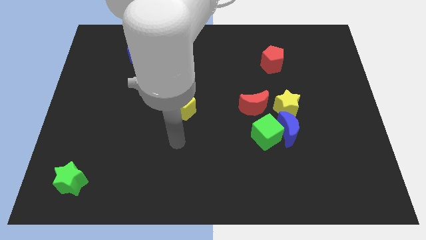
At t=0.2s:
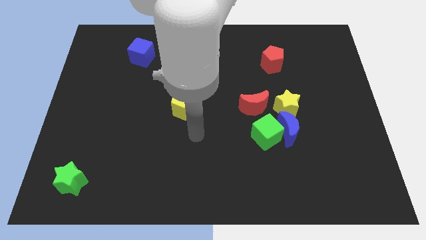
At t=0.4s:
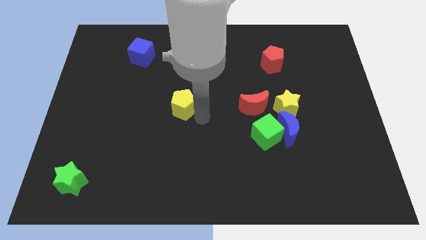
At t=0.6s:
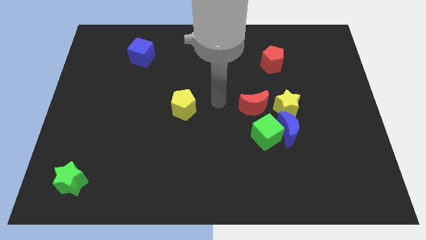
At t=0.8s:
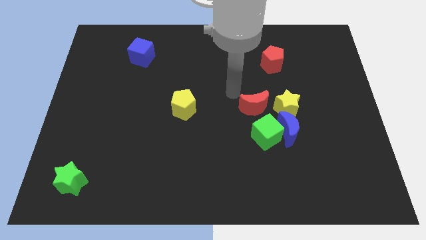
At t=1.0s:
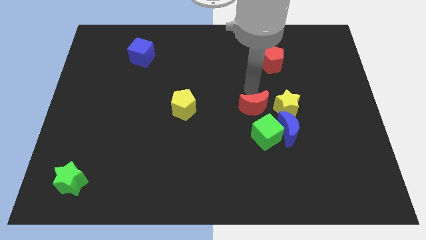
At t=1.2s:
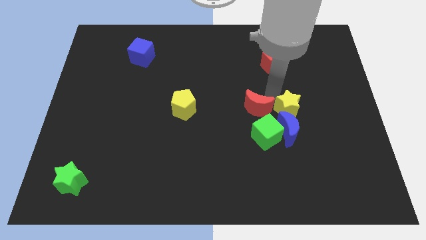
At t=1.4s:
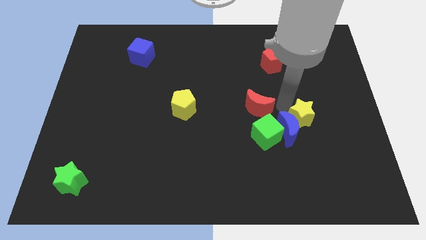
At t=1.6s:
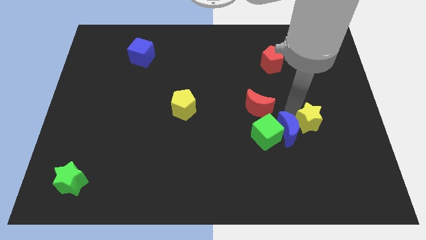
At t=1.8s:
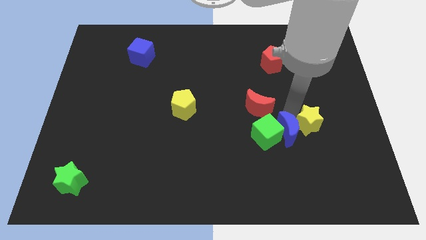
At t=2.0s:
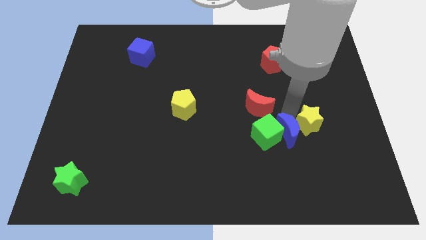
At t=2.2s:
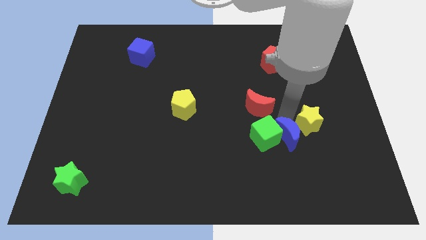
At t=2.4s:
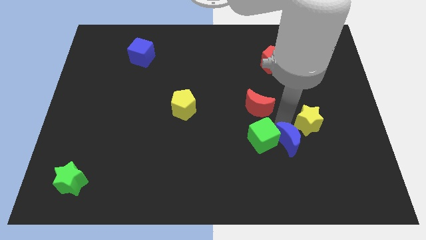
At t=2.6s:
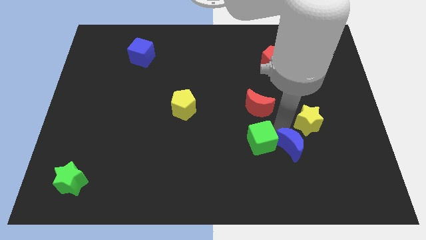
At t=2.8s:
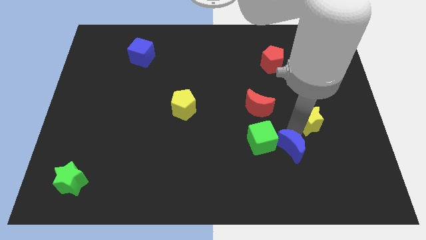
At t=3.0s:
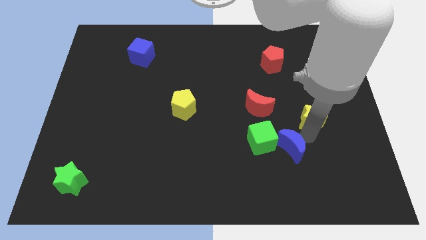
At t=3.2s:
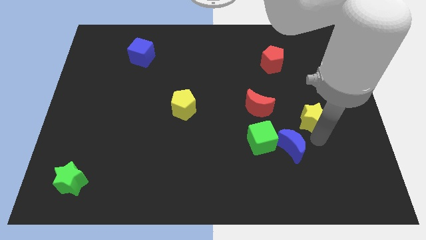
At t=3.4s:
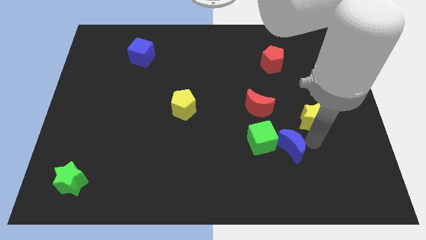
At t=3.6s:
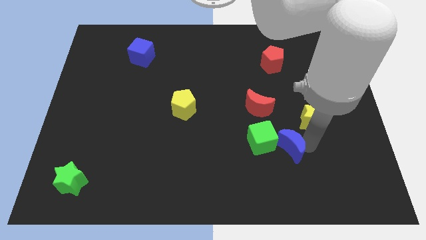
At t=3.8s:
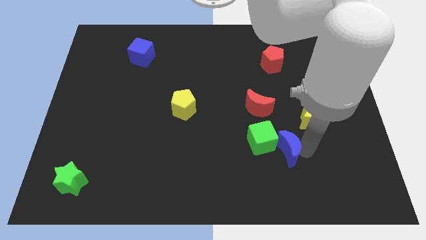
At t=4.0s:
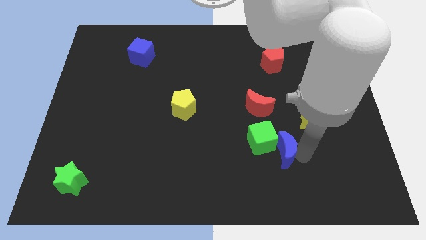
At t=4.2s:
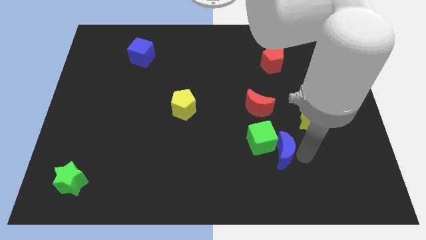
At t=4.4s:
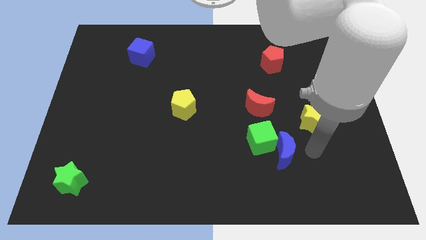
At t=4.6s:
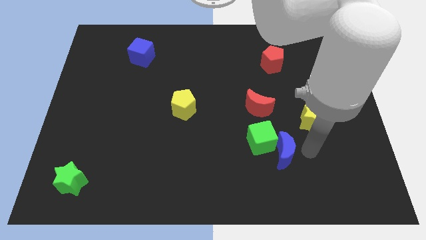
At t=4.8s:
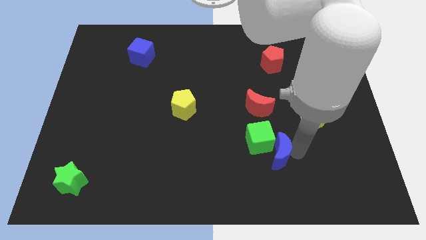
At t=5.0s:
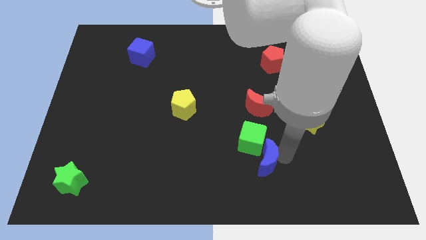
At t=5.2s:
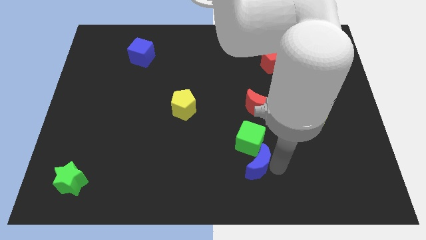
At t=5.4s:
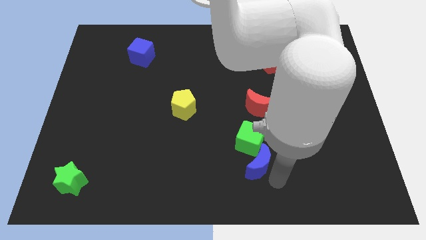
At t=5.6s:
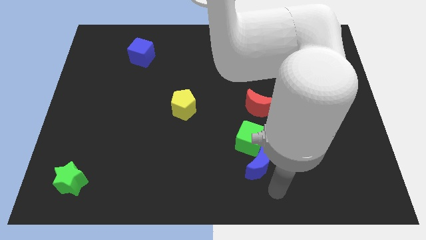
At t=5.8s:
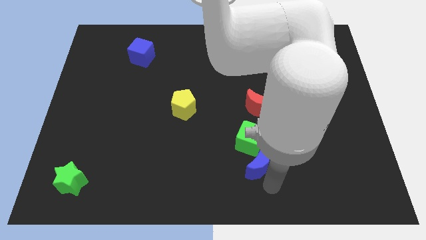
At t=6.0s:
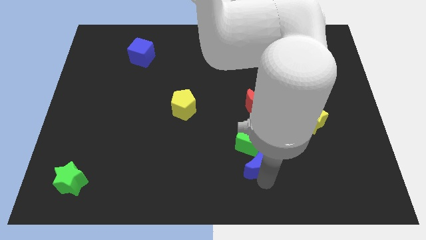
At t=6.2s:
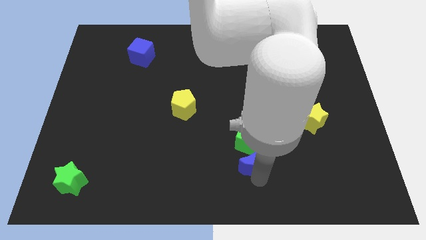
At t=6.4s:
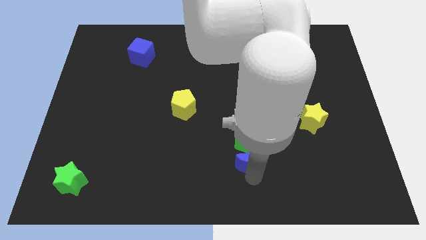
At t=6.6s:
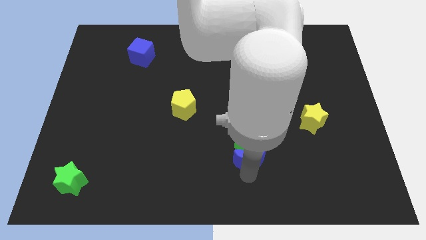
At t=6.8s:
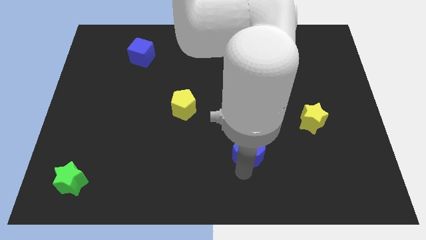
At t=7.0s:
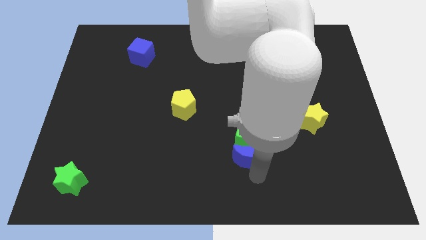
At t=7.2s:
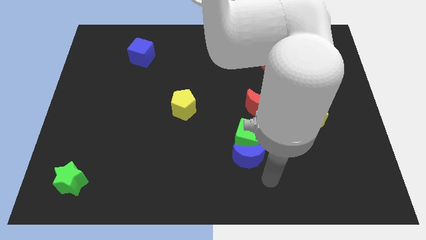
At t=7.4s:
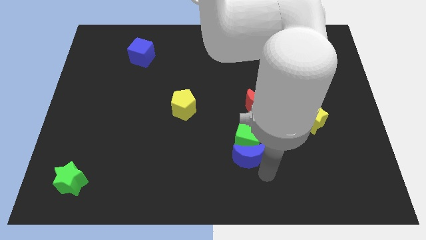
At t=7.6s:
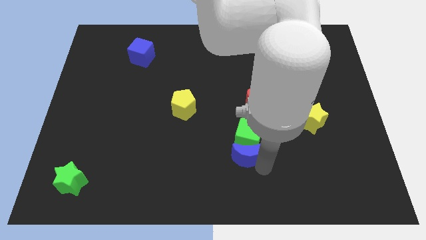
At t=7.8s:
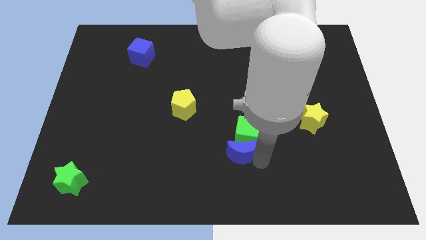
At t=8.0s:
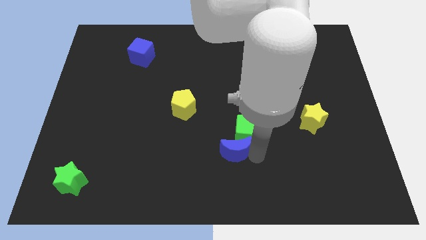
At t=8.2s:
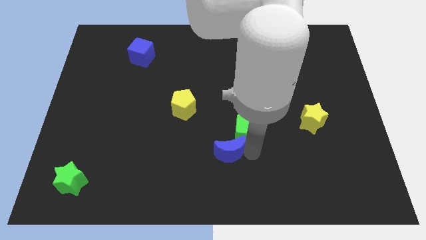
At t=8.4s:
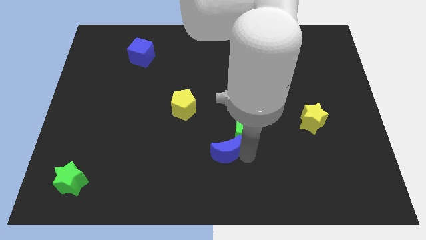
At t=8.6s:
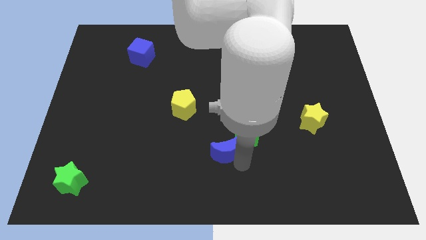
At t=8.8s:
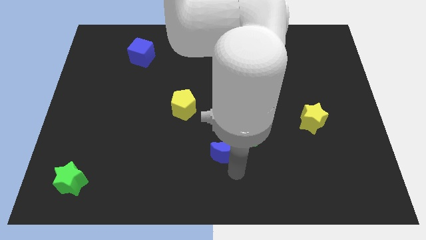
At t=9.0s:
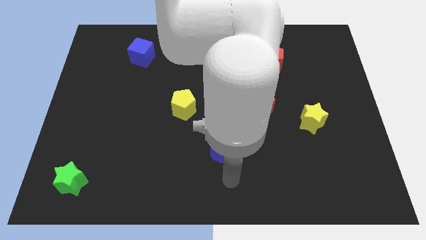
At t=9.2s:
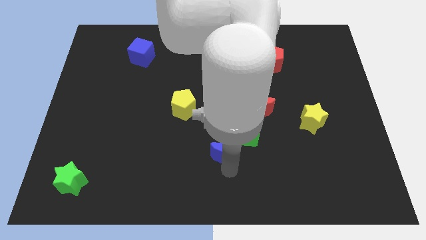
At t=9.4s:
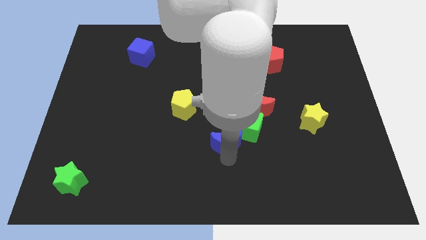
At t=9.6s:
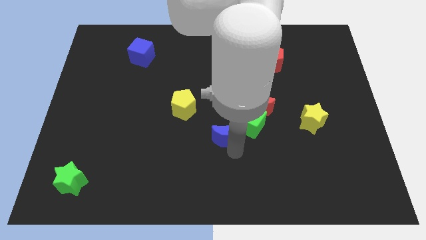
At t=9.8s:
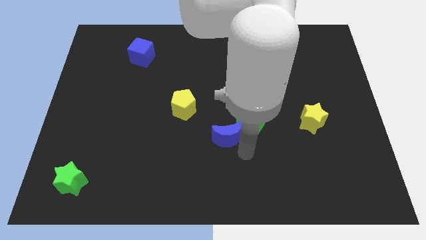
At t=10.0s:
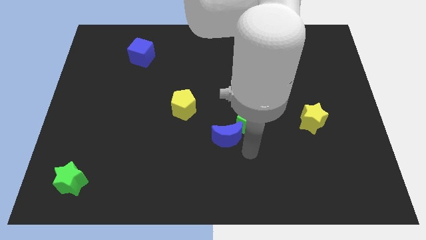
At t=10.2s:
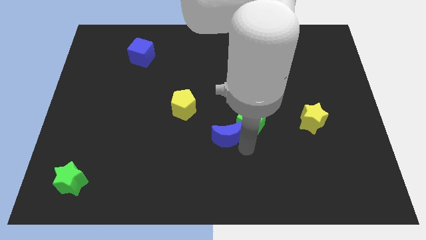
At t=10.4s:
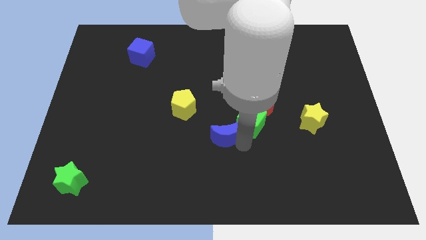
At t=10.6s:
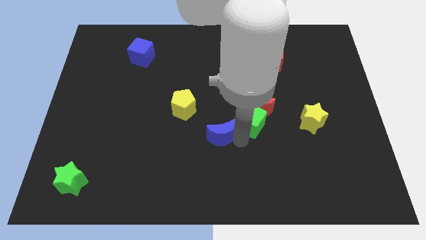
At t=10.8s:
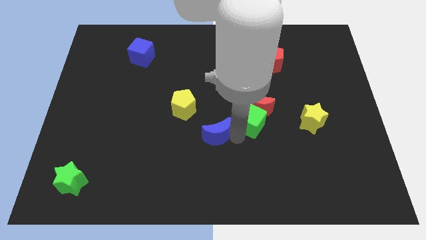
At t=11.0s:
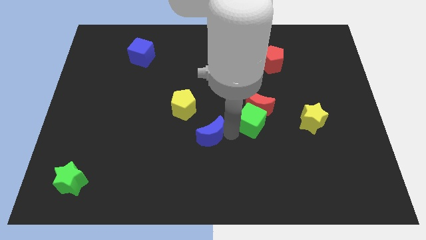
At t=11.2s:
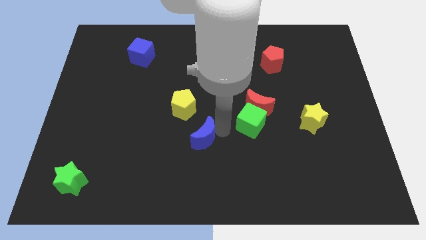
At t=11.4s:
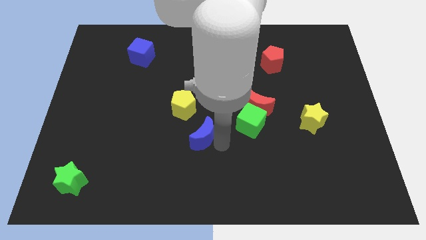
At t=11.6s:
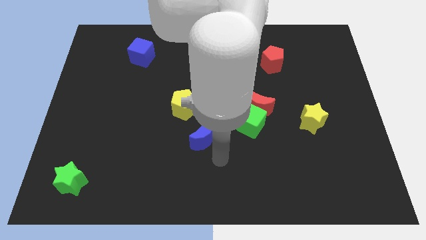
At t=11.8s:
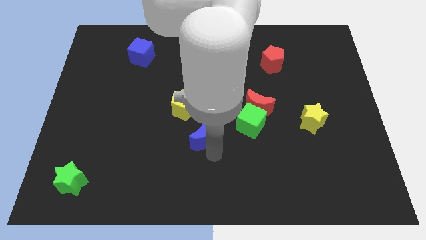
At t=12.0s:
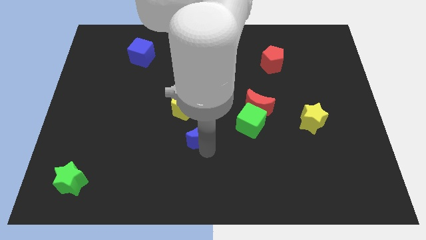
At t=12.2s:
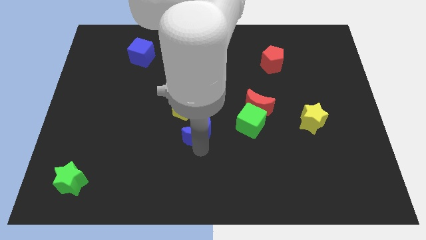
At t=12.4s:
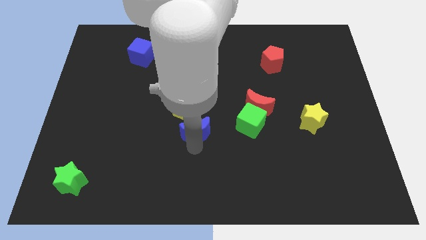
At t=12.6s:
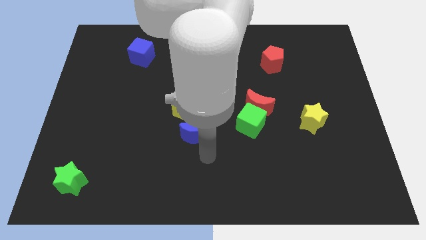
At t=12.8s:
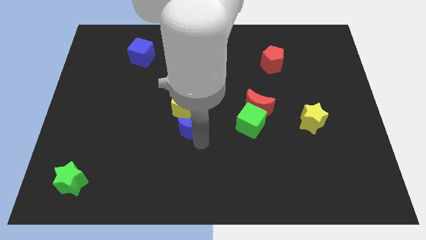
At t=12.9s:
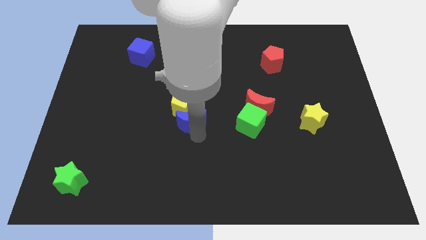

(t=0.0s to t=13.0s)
put the blue moon next to the yellow pentagon

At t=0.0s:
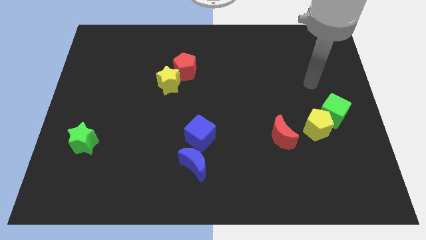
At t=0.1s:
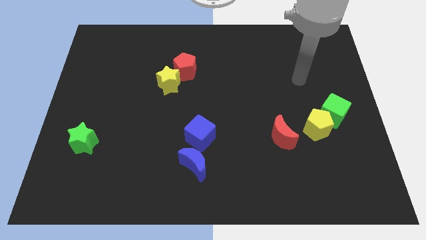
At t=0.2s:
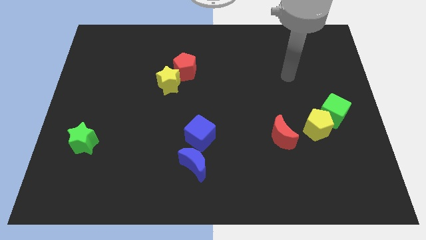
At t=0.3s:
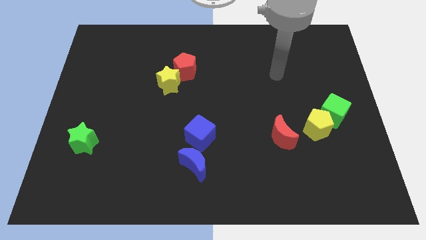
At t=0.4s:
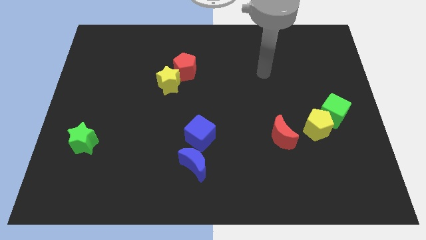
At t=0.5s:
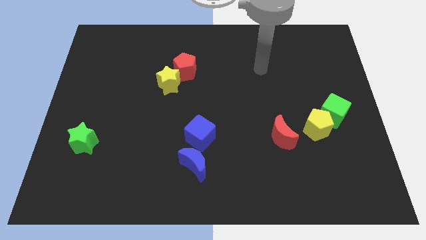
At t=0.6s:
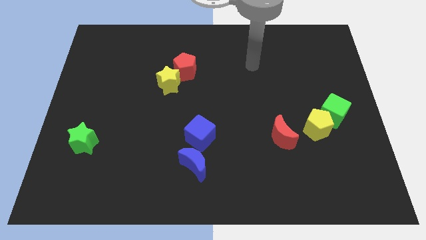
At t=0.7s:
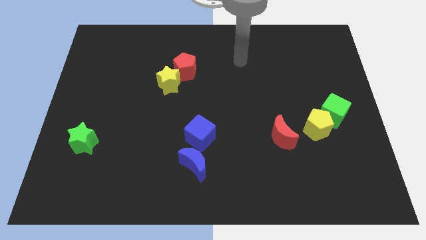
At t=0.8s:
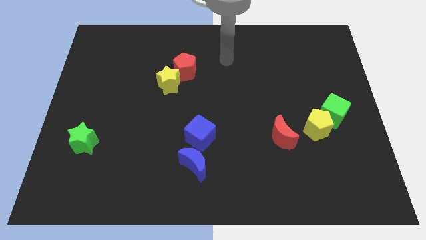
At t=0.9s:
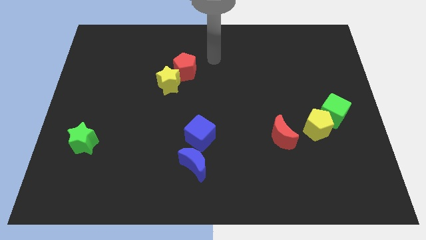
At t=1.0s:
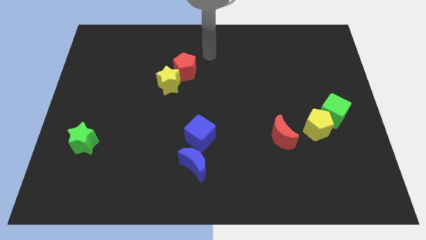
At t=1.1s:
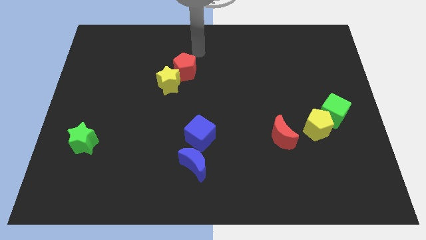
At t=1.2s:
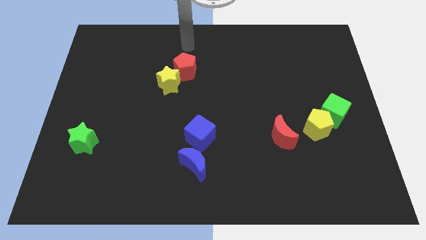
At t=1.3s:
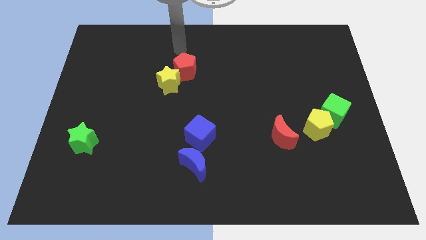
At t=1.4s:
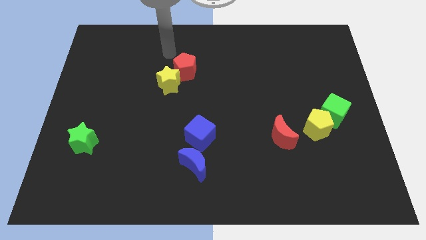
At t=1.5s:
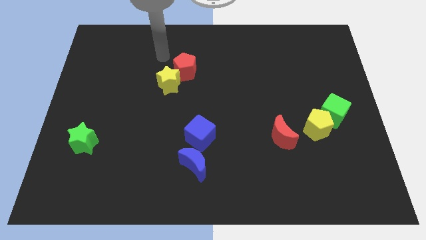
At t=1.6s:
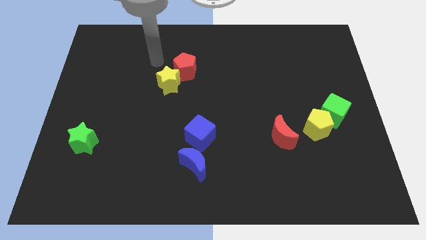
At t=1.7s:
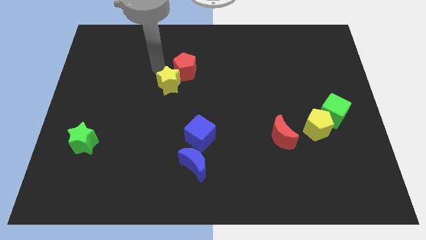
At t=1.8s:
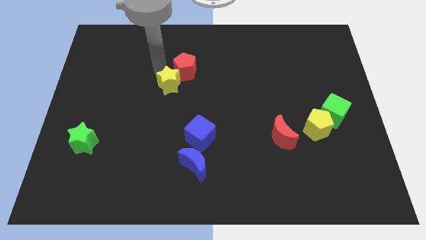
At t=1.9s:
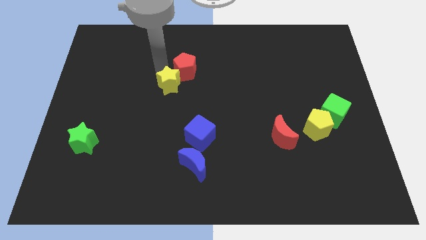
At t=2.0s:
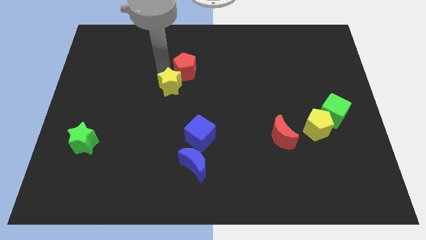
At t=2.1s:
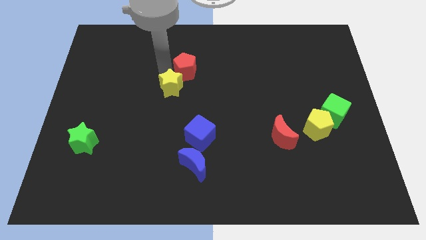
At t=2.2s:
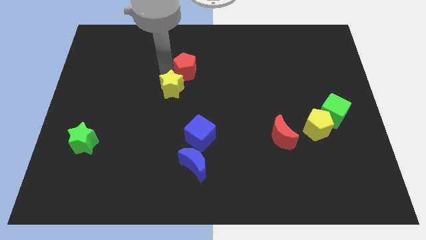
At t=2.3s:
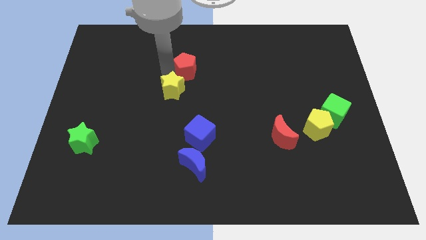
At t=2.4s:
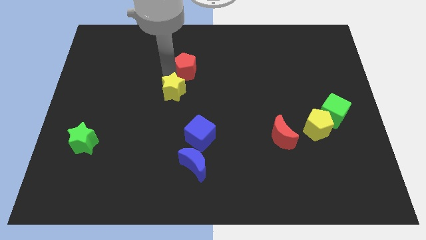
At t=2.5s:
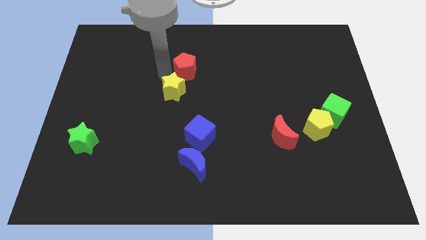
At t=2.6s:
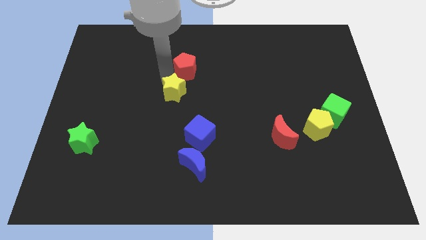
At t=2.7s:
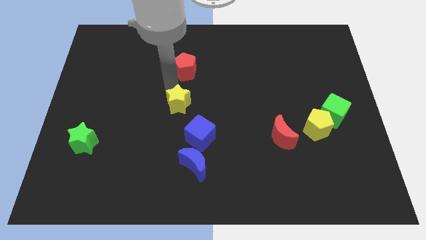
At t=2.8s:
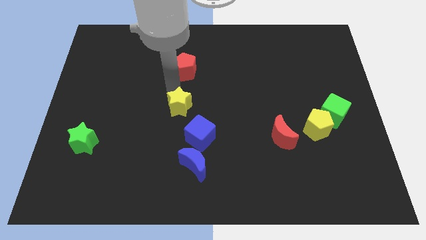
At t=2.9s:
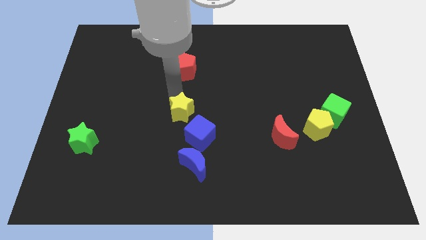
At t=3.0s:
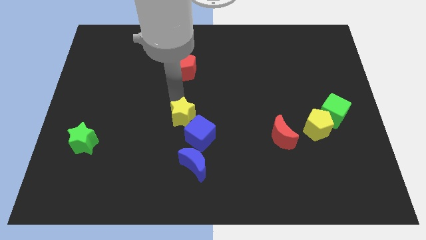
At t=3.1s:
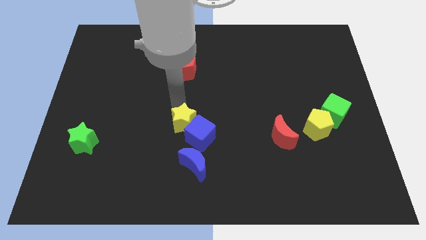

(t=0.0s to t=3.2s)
push the yellow star towards the blue cube
